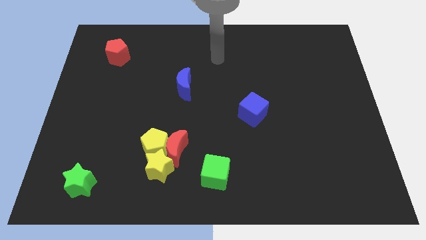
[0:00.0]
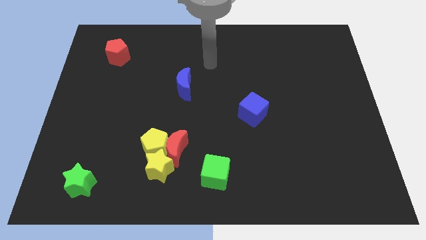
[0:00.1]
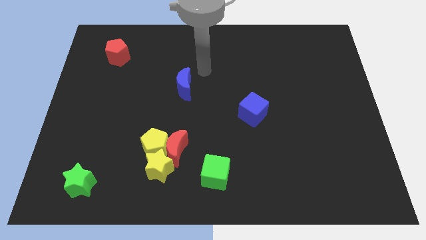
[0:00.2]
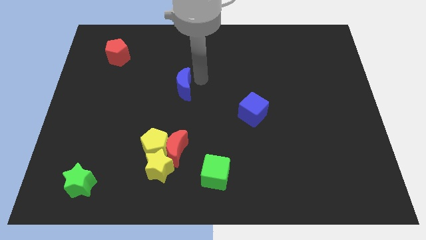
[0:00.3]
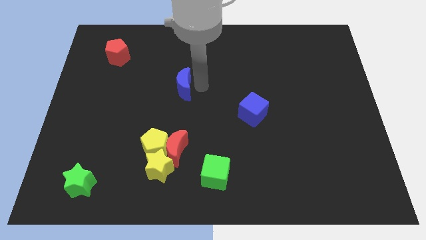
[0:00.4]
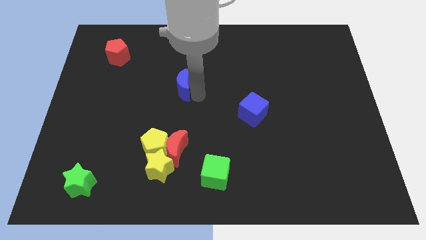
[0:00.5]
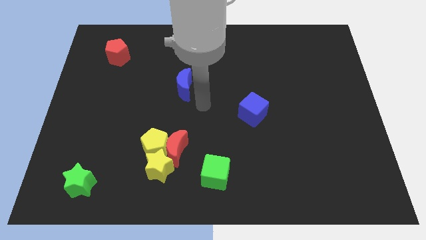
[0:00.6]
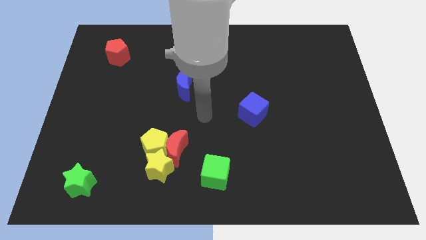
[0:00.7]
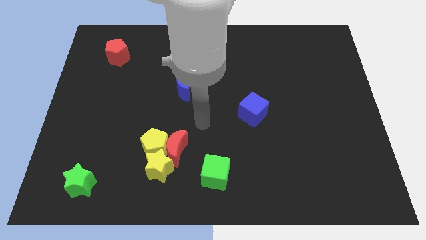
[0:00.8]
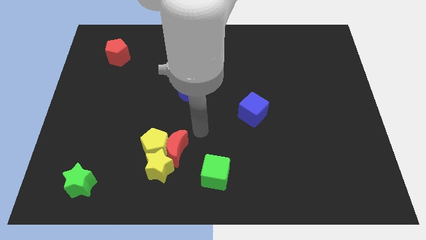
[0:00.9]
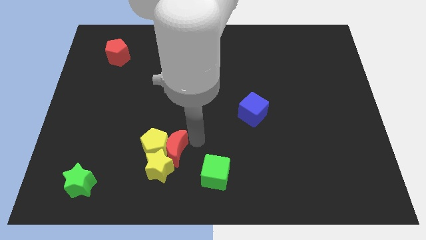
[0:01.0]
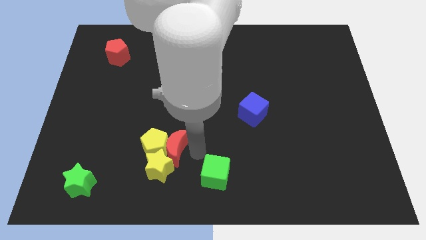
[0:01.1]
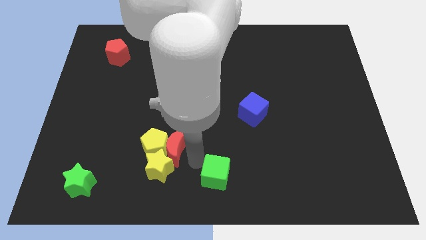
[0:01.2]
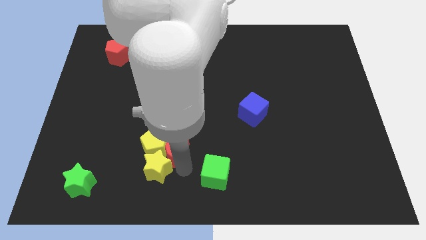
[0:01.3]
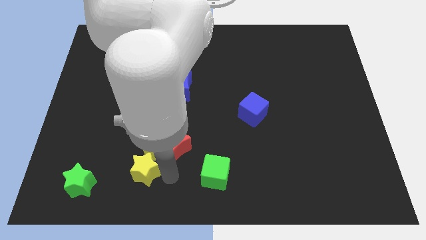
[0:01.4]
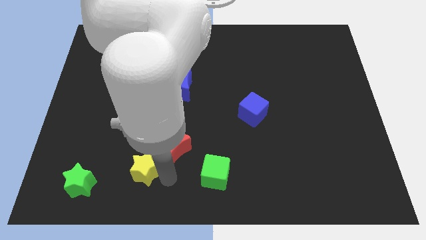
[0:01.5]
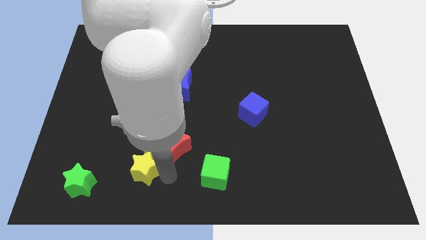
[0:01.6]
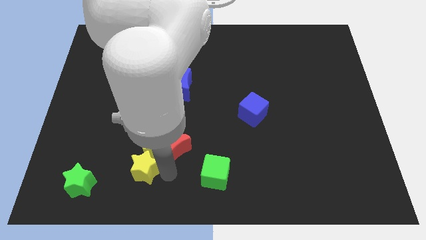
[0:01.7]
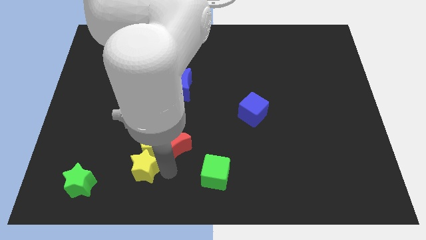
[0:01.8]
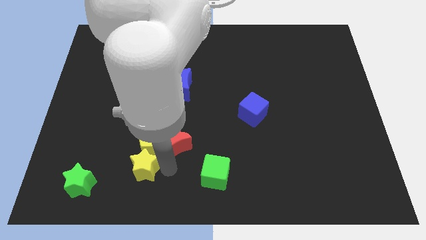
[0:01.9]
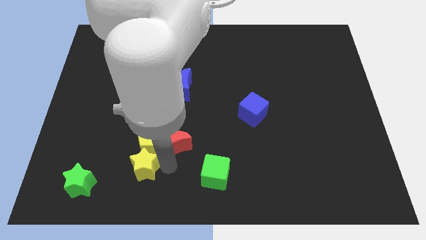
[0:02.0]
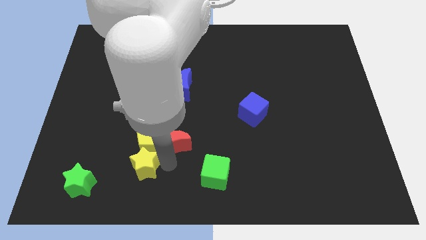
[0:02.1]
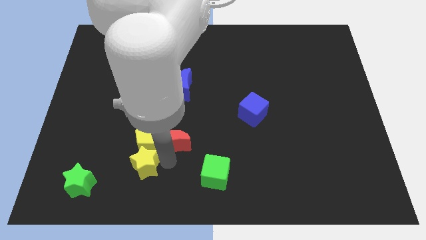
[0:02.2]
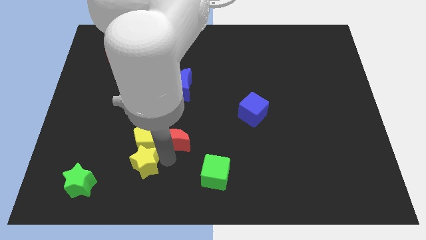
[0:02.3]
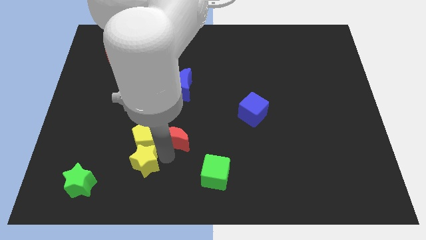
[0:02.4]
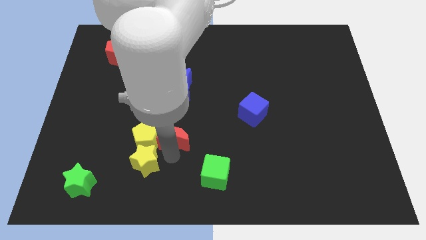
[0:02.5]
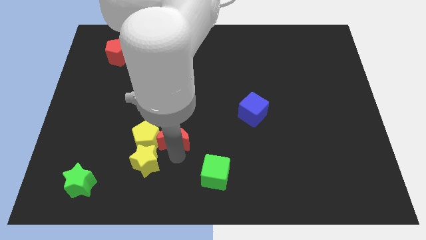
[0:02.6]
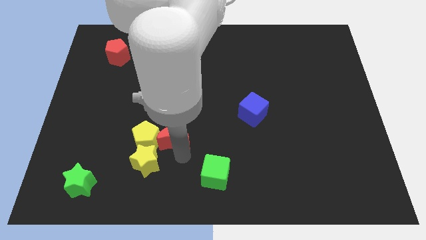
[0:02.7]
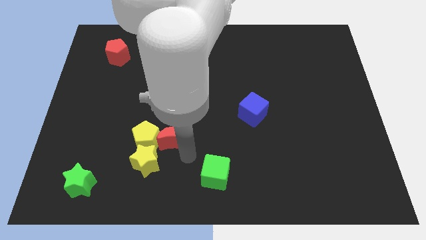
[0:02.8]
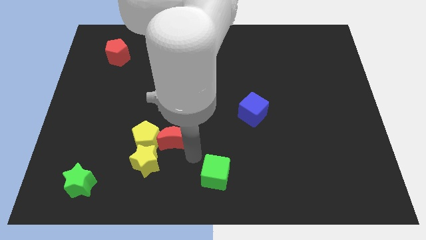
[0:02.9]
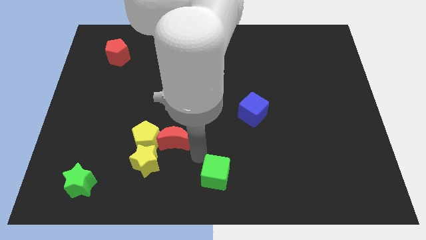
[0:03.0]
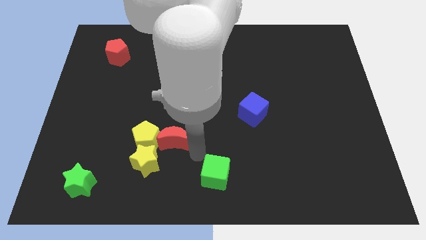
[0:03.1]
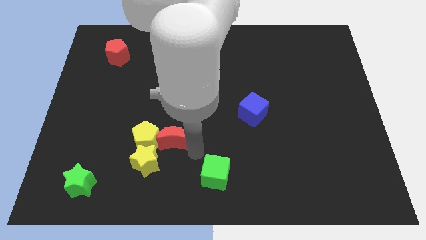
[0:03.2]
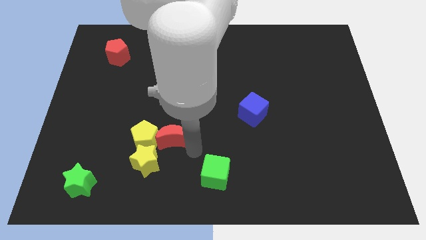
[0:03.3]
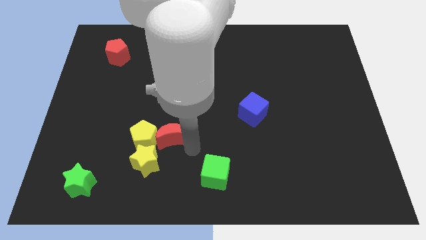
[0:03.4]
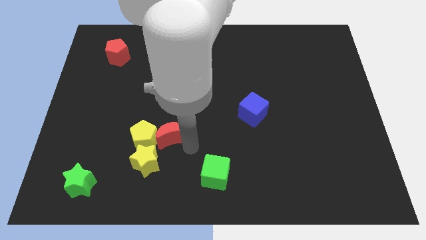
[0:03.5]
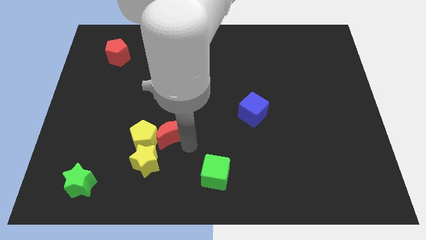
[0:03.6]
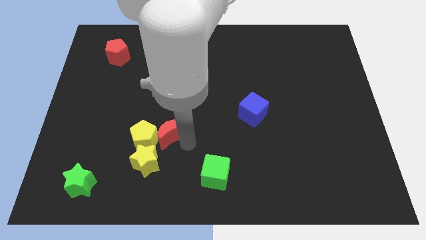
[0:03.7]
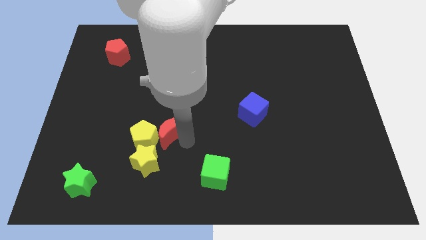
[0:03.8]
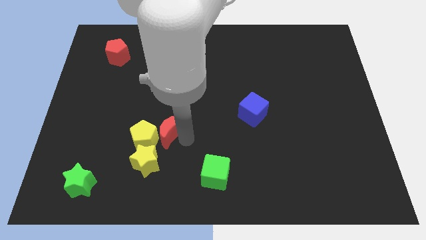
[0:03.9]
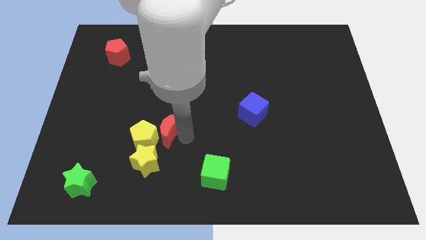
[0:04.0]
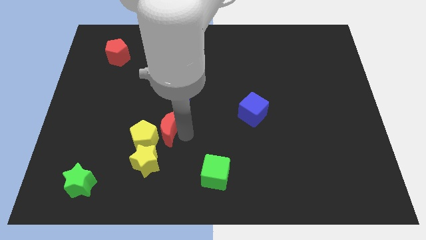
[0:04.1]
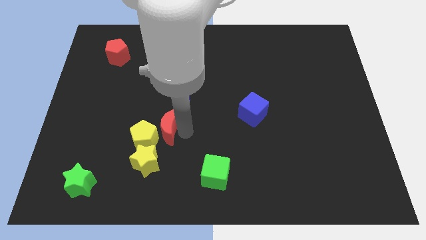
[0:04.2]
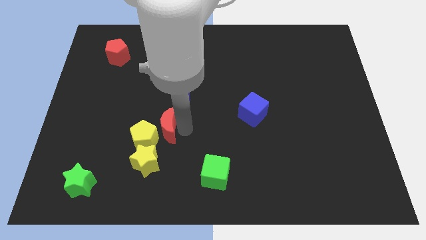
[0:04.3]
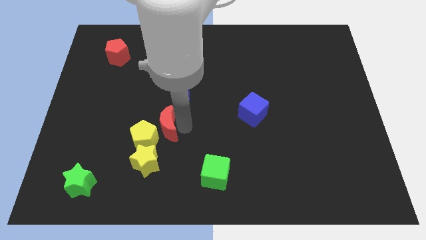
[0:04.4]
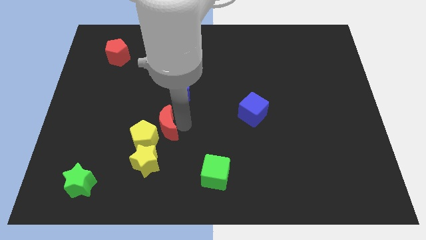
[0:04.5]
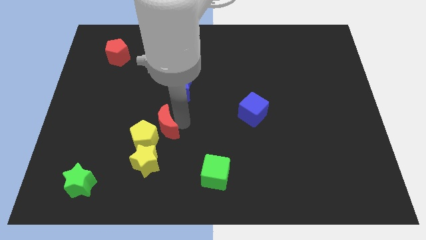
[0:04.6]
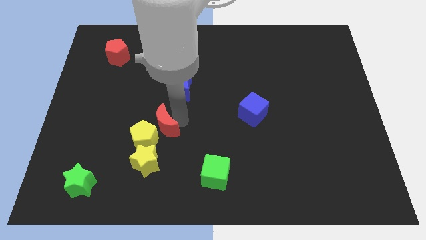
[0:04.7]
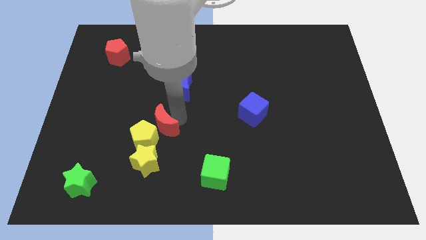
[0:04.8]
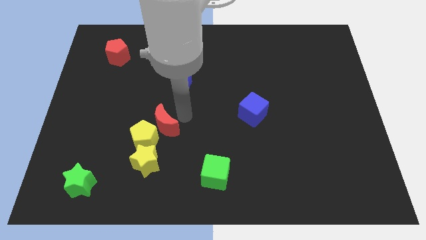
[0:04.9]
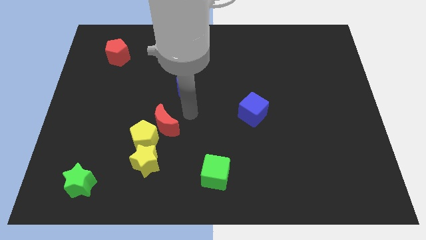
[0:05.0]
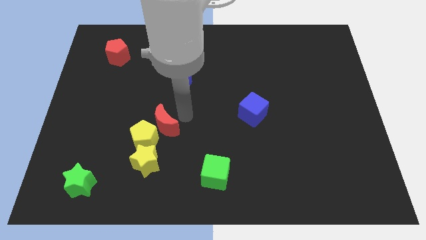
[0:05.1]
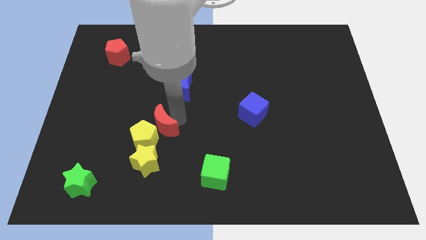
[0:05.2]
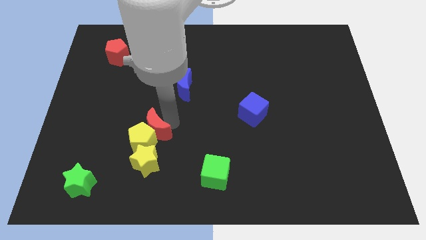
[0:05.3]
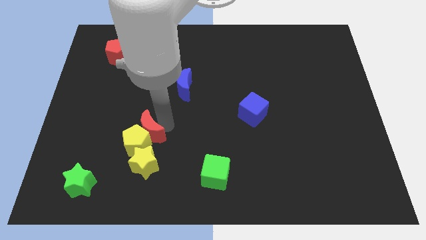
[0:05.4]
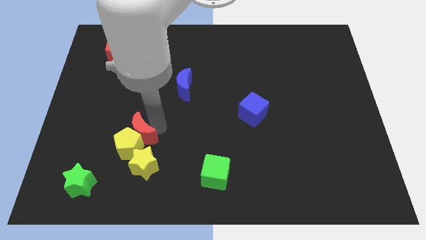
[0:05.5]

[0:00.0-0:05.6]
slightly move the red moon left

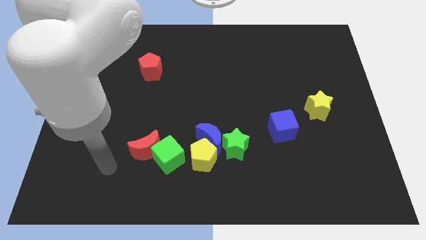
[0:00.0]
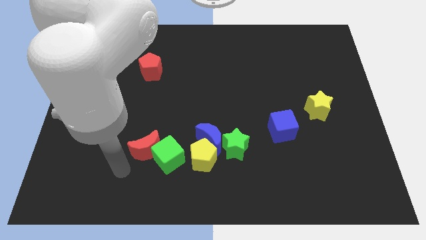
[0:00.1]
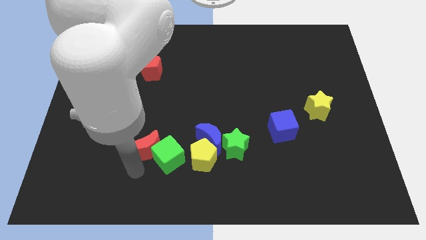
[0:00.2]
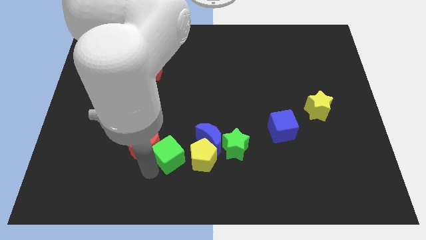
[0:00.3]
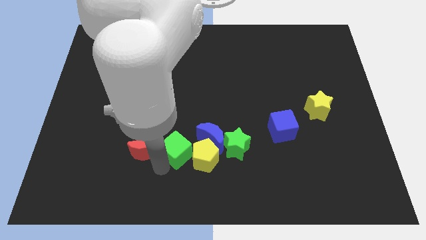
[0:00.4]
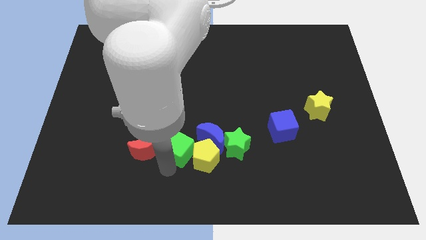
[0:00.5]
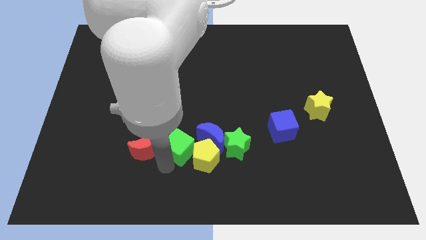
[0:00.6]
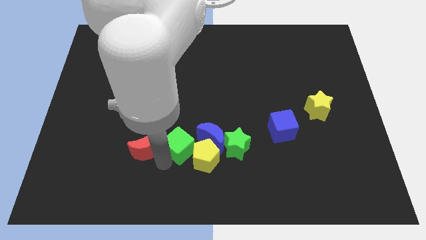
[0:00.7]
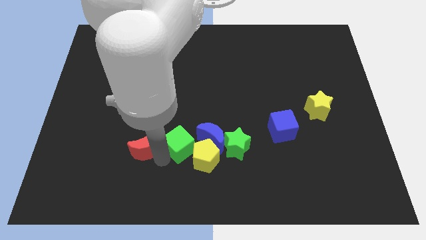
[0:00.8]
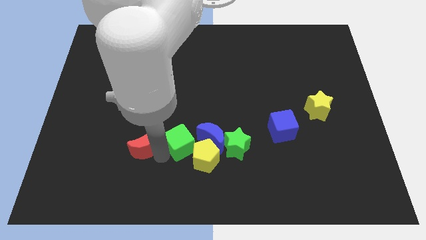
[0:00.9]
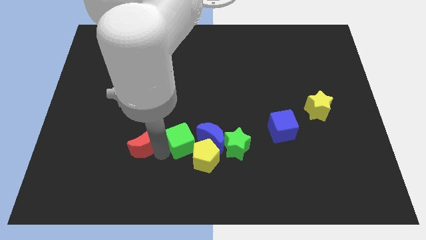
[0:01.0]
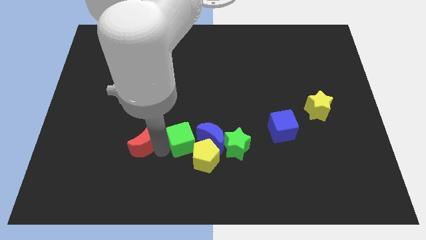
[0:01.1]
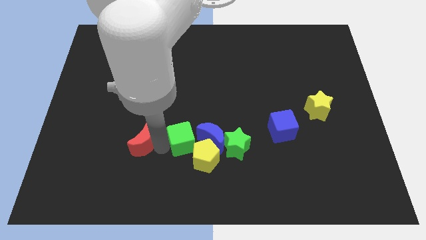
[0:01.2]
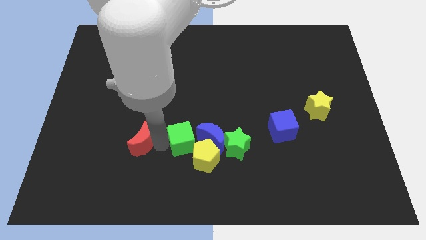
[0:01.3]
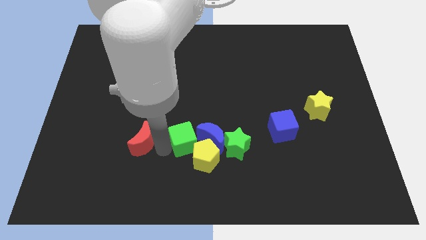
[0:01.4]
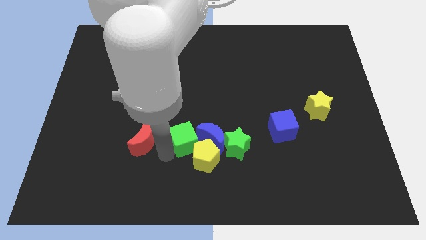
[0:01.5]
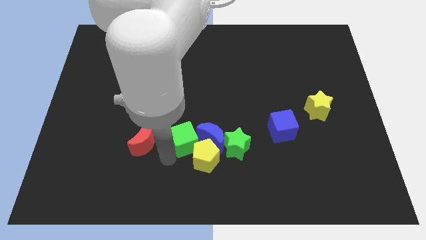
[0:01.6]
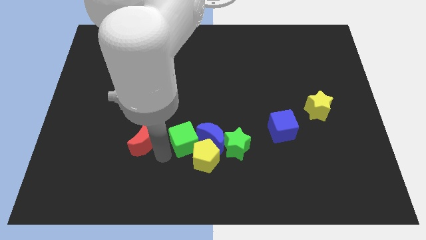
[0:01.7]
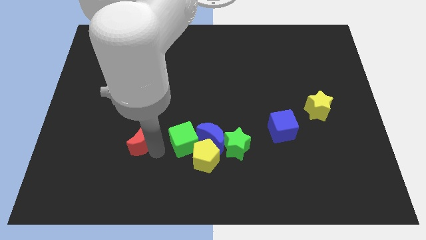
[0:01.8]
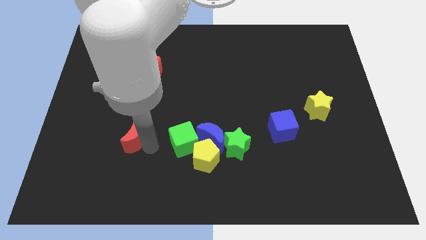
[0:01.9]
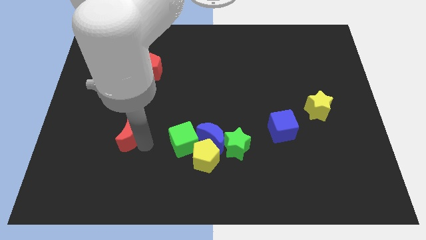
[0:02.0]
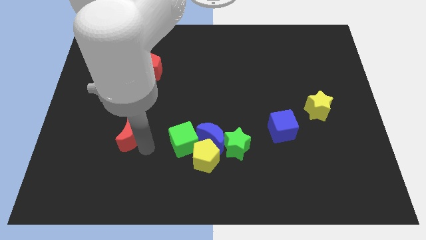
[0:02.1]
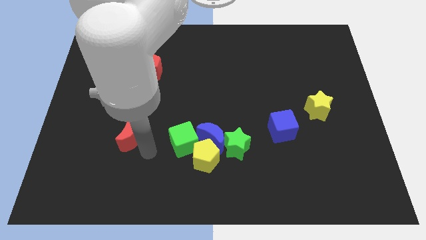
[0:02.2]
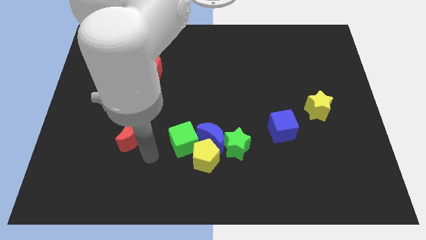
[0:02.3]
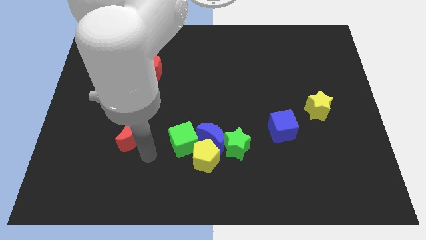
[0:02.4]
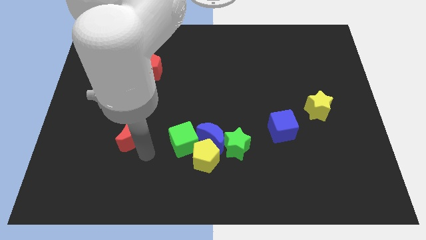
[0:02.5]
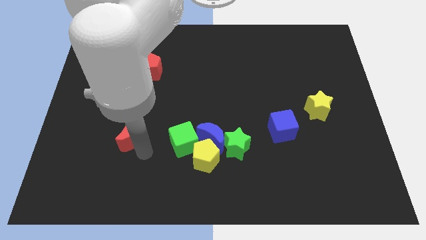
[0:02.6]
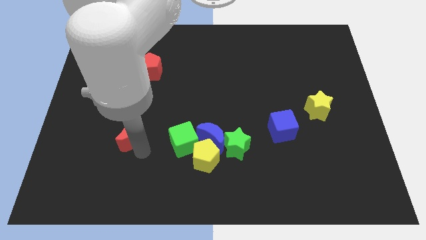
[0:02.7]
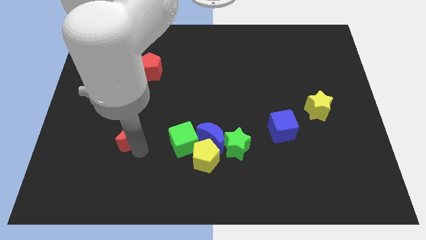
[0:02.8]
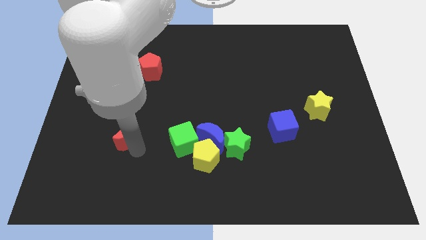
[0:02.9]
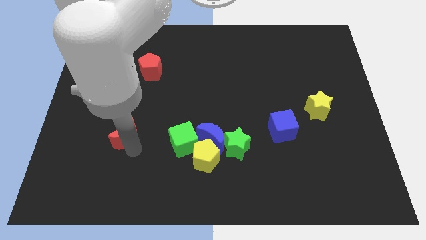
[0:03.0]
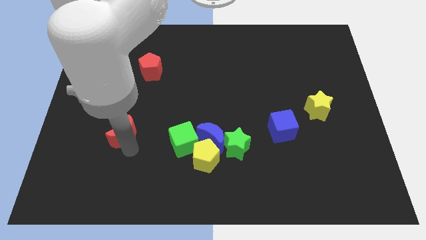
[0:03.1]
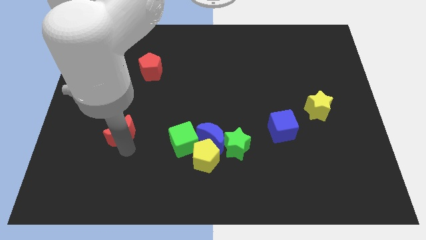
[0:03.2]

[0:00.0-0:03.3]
push the red moon upwards and to the left diagonally a bit
